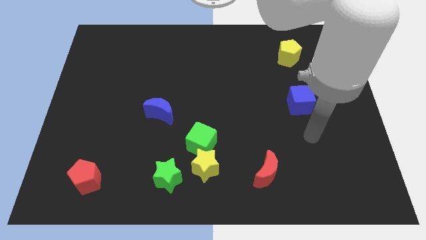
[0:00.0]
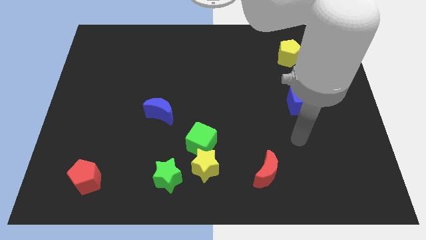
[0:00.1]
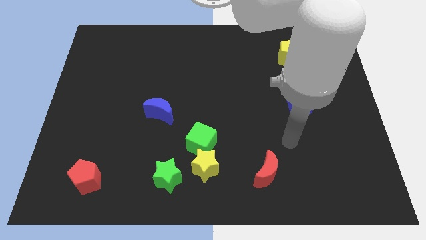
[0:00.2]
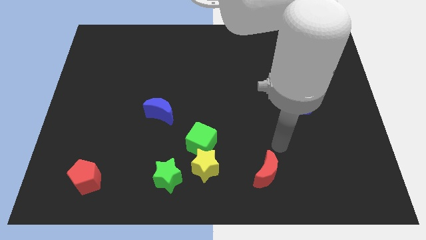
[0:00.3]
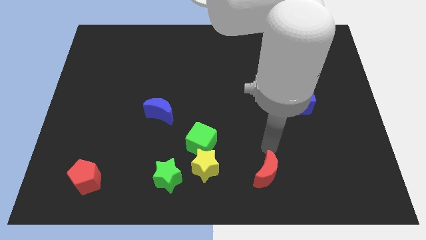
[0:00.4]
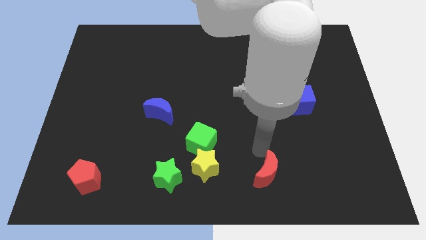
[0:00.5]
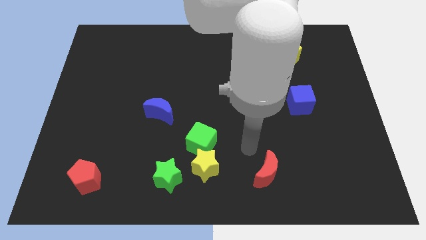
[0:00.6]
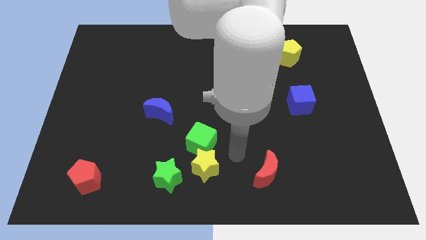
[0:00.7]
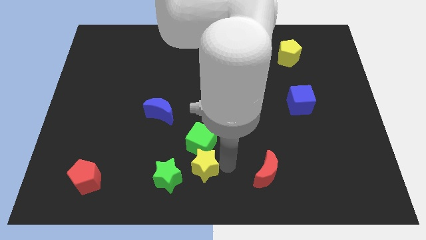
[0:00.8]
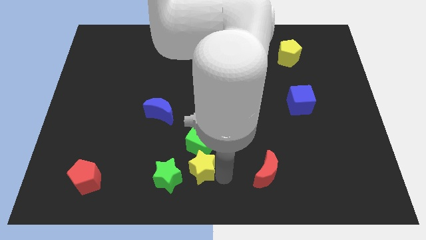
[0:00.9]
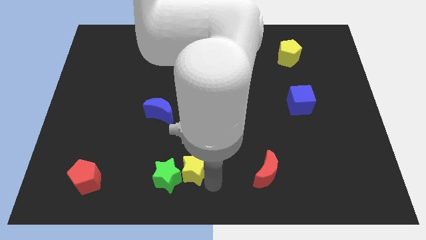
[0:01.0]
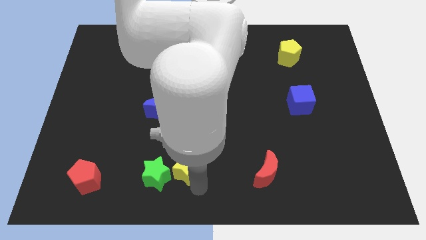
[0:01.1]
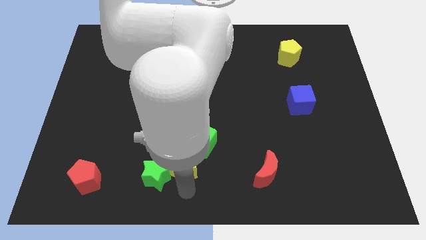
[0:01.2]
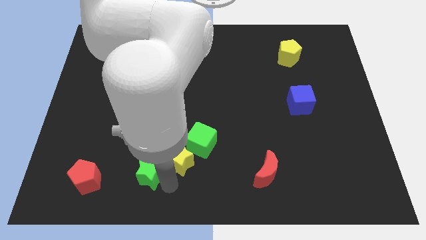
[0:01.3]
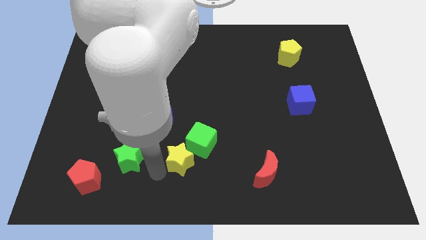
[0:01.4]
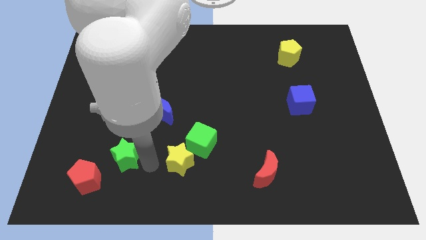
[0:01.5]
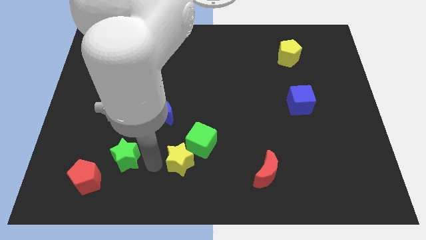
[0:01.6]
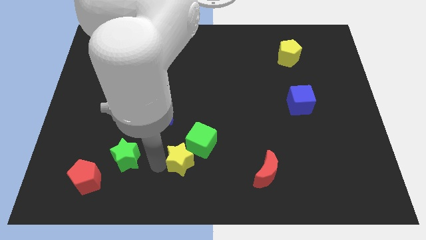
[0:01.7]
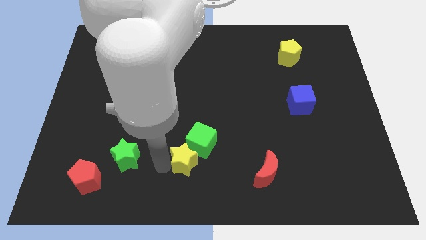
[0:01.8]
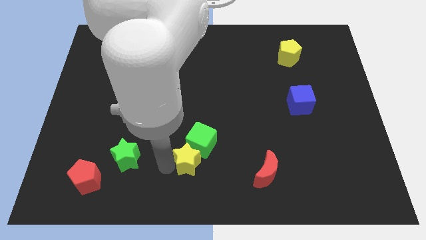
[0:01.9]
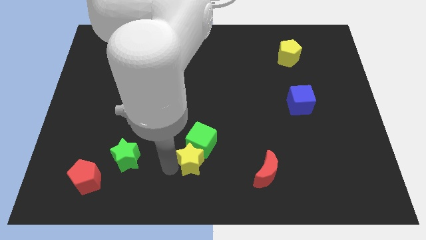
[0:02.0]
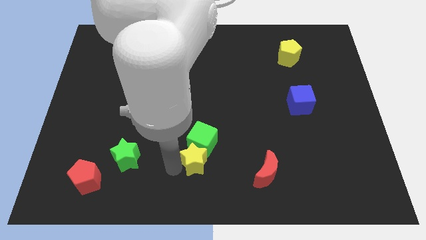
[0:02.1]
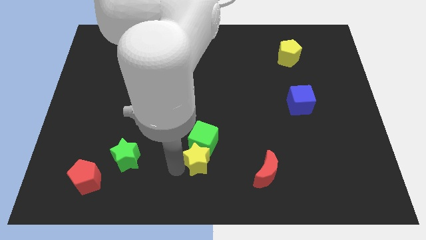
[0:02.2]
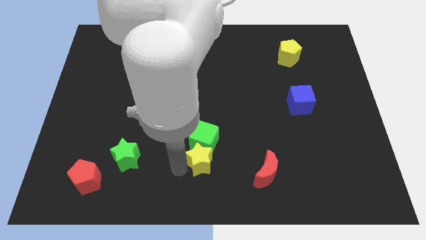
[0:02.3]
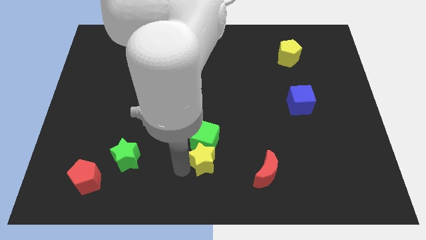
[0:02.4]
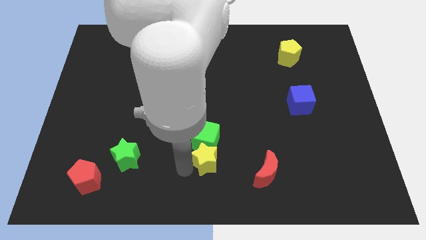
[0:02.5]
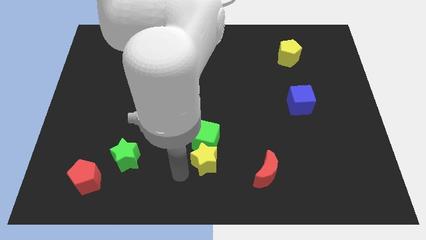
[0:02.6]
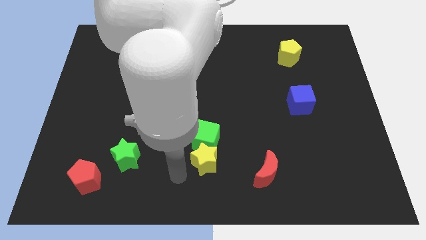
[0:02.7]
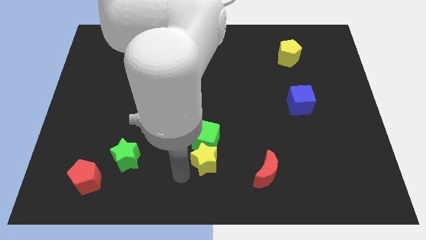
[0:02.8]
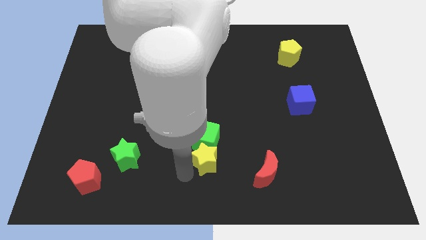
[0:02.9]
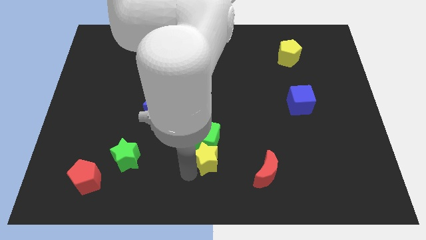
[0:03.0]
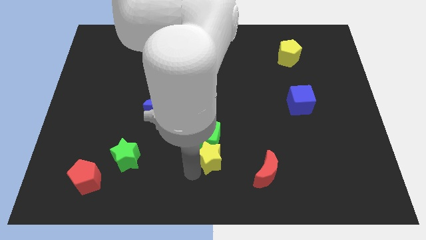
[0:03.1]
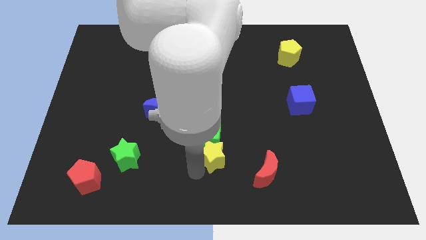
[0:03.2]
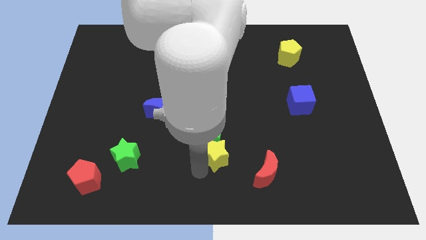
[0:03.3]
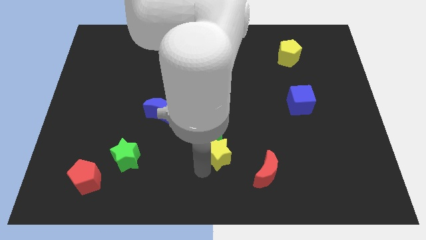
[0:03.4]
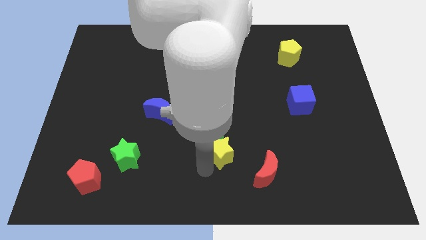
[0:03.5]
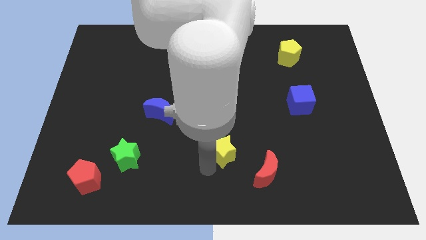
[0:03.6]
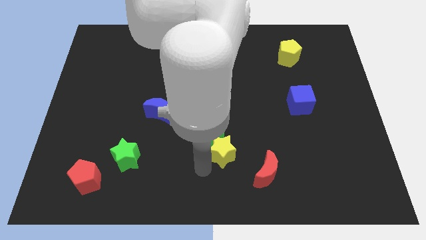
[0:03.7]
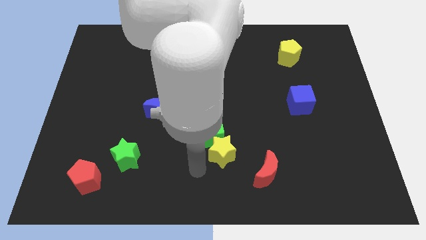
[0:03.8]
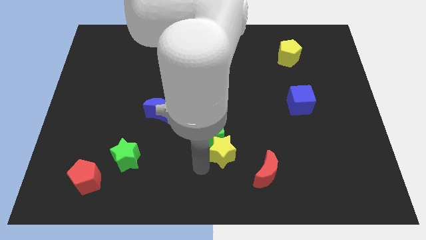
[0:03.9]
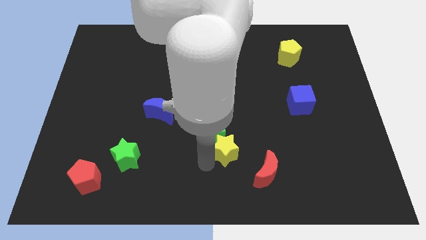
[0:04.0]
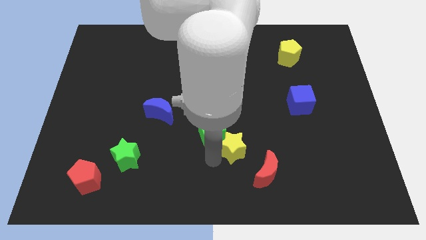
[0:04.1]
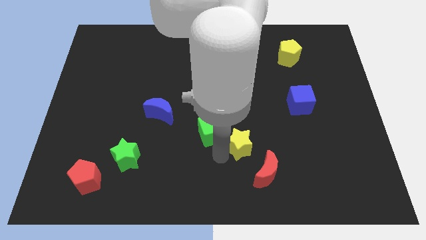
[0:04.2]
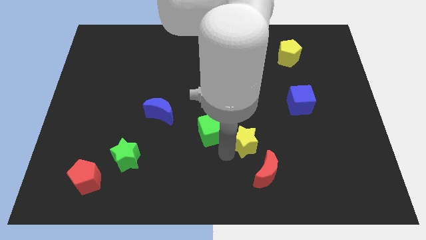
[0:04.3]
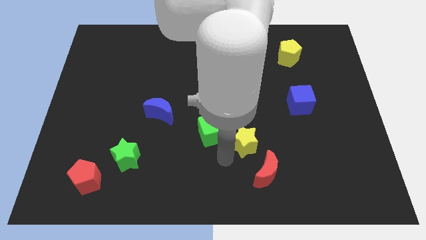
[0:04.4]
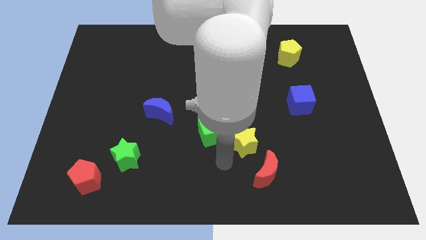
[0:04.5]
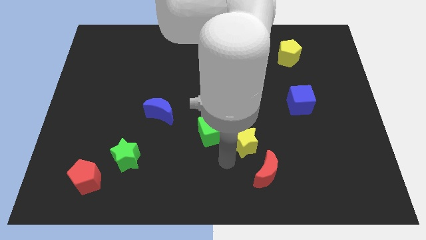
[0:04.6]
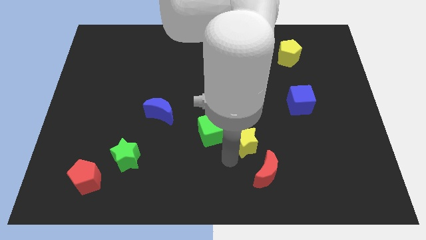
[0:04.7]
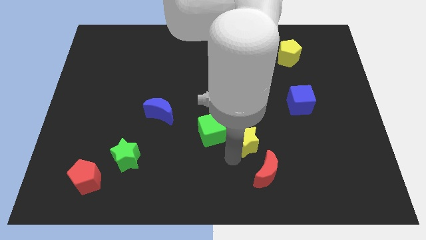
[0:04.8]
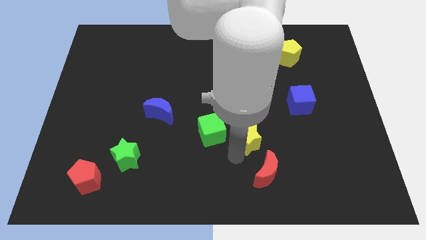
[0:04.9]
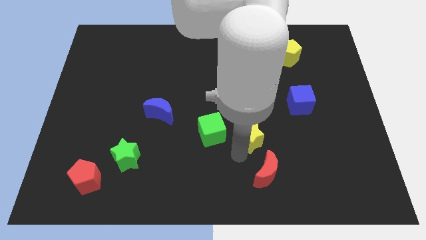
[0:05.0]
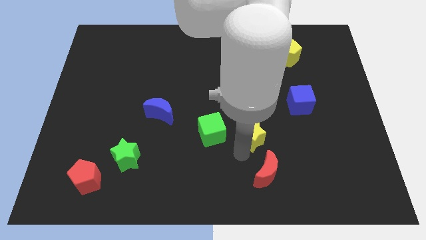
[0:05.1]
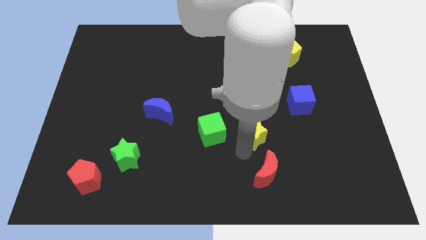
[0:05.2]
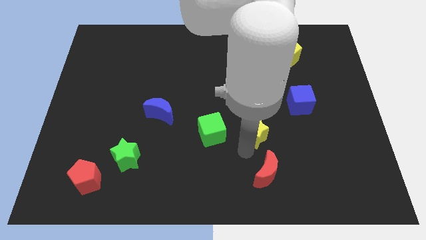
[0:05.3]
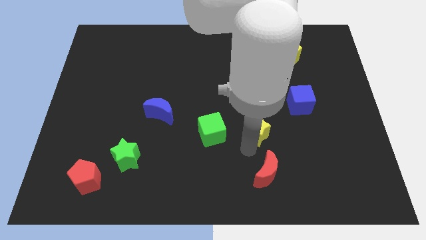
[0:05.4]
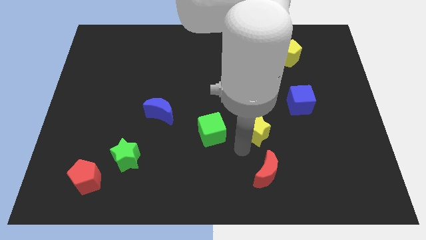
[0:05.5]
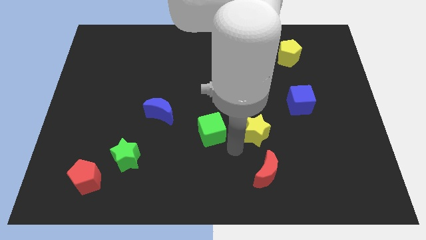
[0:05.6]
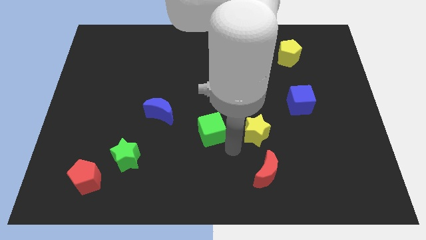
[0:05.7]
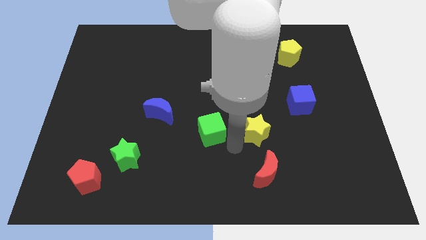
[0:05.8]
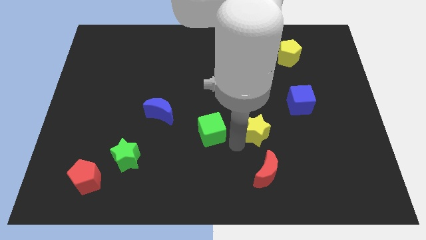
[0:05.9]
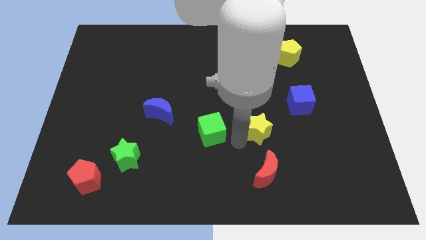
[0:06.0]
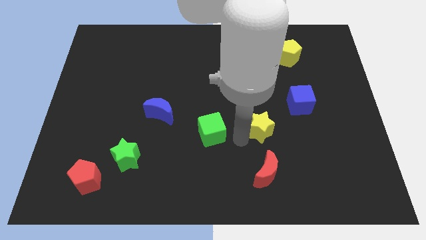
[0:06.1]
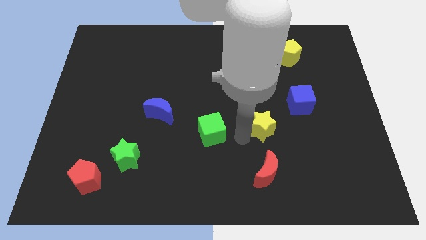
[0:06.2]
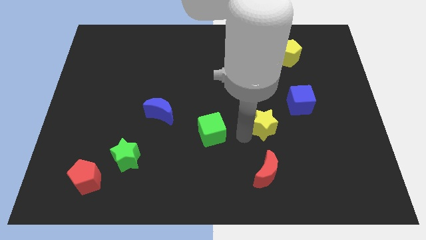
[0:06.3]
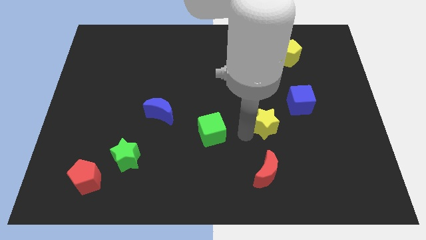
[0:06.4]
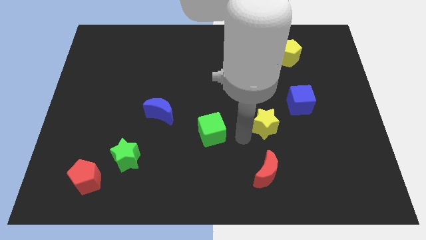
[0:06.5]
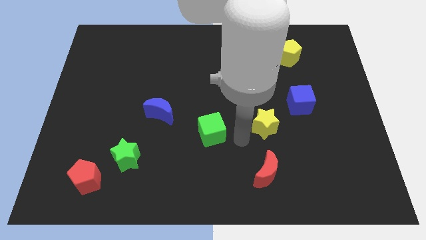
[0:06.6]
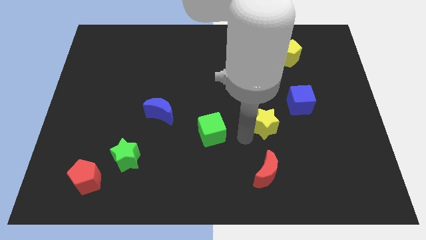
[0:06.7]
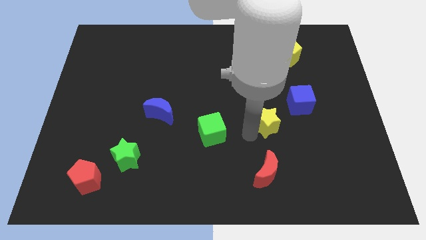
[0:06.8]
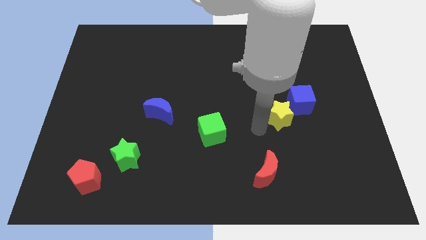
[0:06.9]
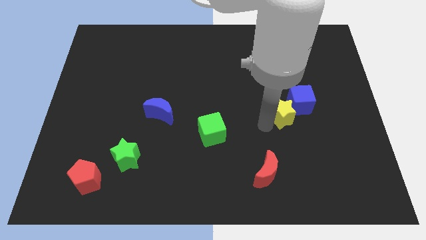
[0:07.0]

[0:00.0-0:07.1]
put the yellow star next to the blue cube
